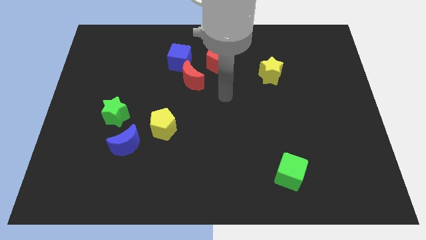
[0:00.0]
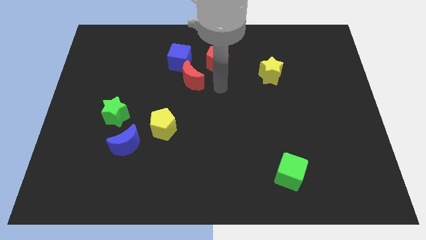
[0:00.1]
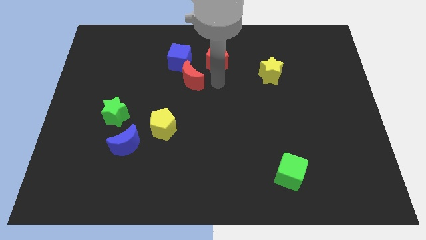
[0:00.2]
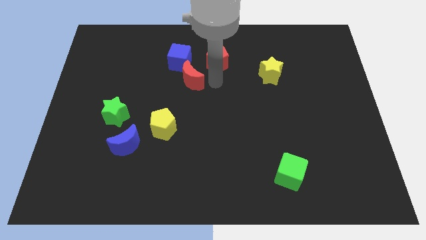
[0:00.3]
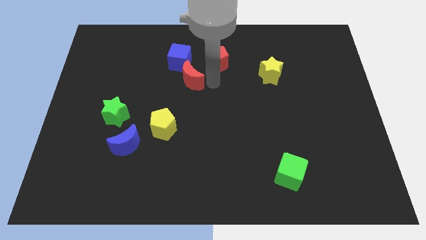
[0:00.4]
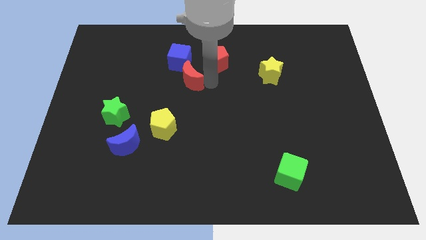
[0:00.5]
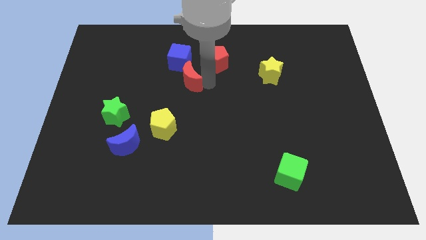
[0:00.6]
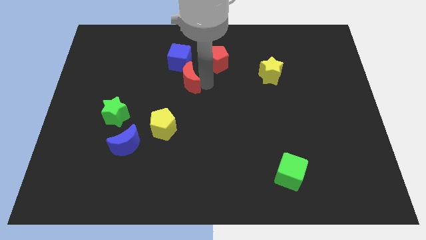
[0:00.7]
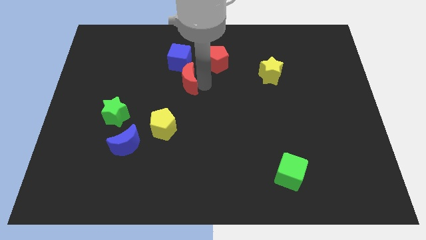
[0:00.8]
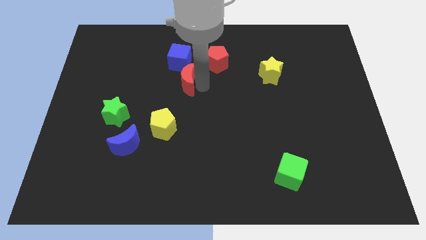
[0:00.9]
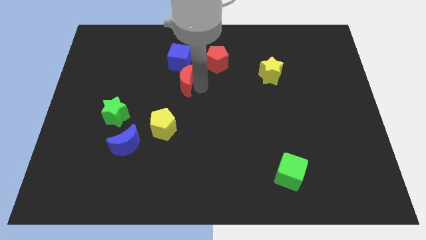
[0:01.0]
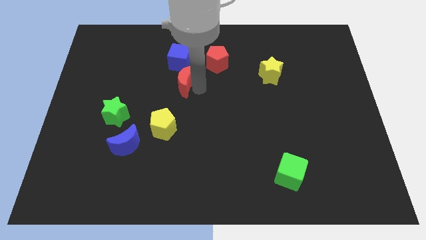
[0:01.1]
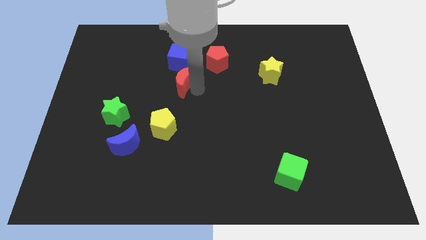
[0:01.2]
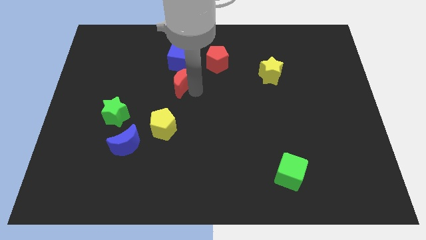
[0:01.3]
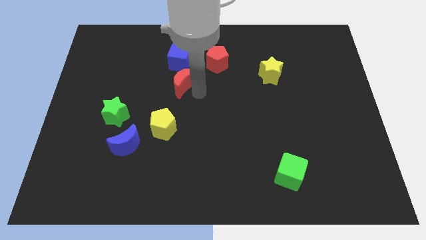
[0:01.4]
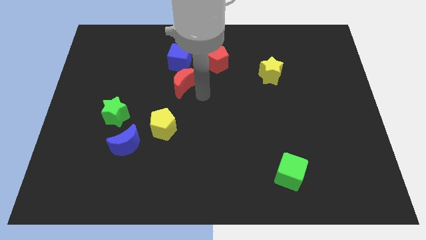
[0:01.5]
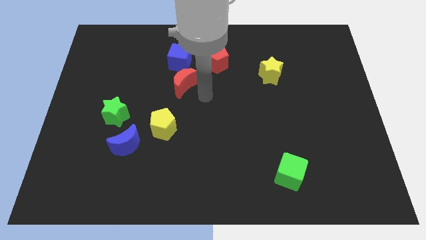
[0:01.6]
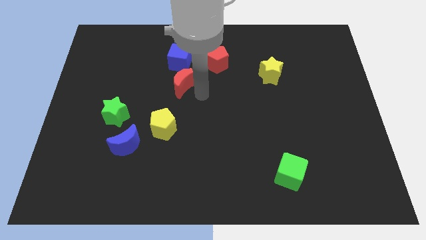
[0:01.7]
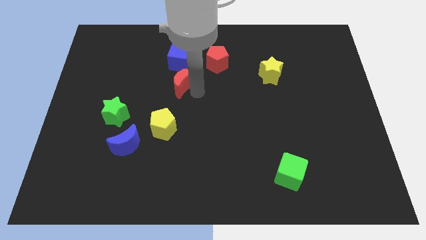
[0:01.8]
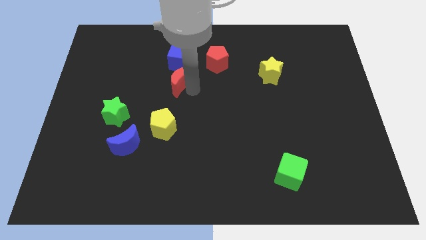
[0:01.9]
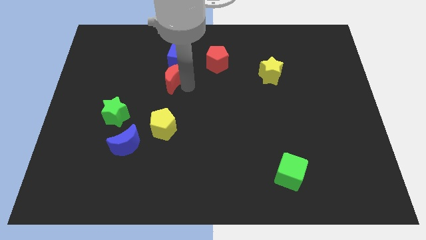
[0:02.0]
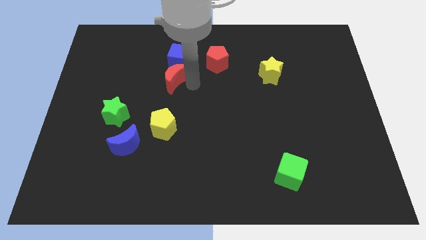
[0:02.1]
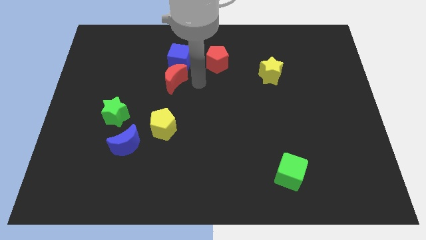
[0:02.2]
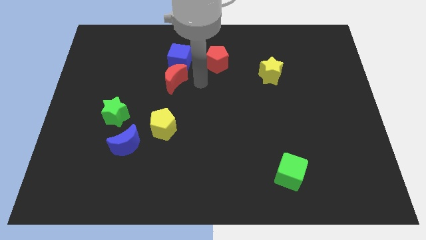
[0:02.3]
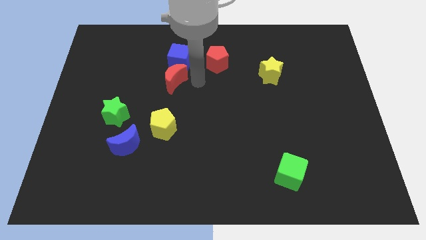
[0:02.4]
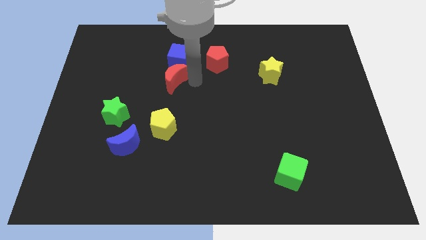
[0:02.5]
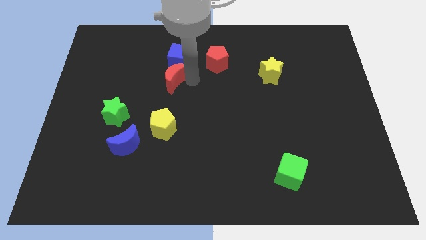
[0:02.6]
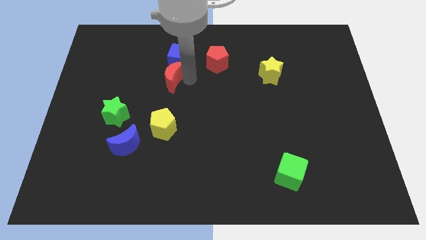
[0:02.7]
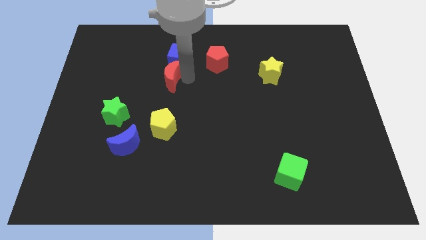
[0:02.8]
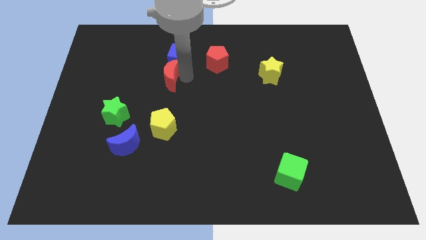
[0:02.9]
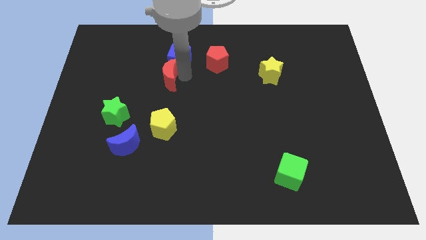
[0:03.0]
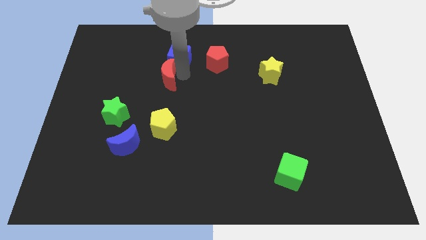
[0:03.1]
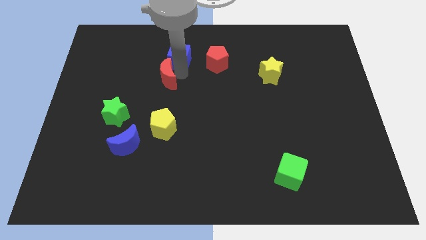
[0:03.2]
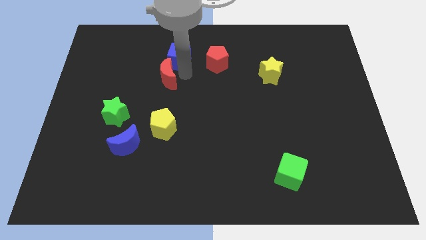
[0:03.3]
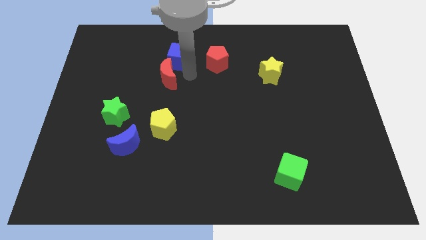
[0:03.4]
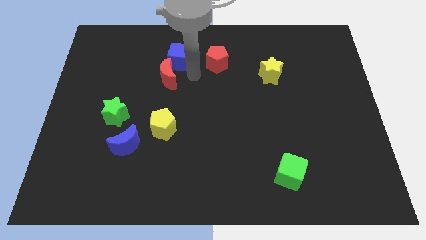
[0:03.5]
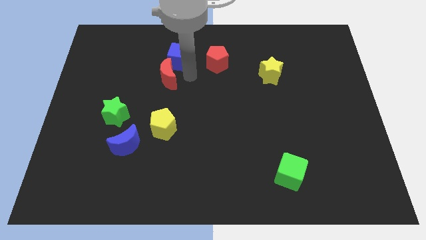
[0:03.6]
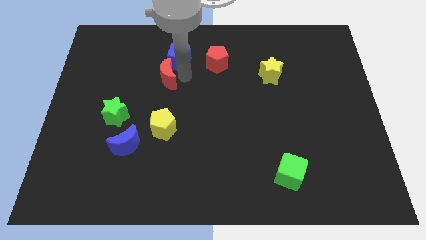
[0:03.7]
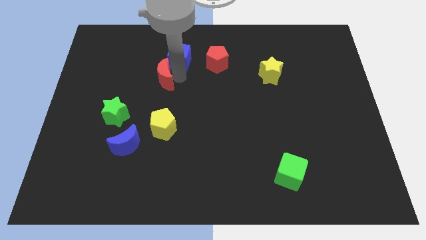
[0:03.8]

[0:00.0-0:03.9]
move the red moon a little left

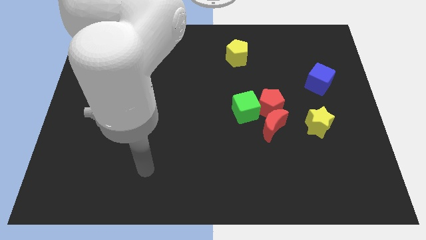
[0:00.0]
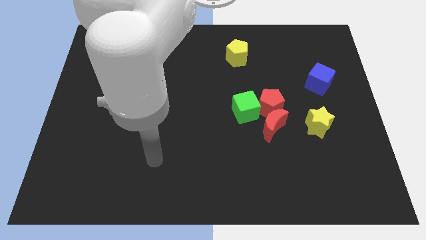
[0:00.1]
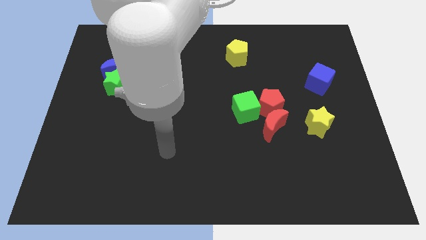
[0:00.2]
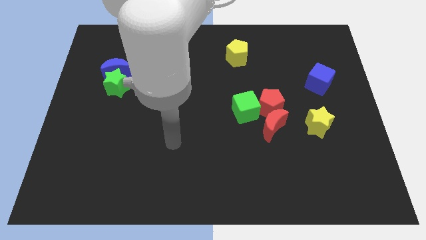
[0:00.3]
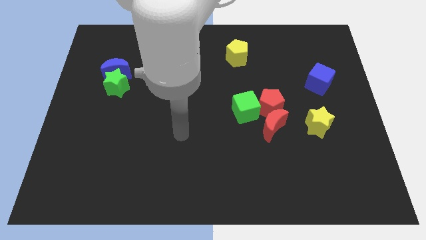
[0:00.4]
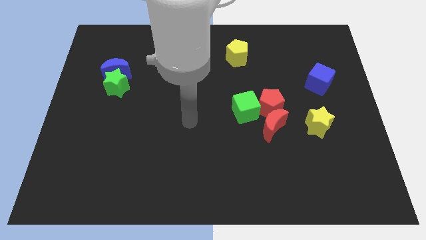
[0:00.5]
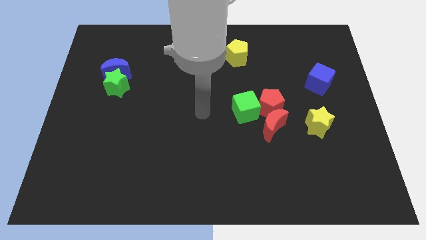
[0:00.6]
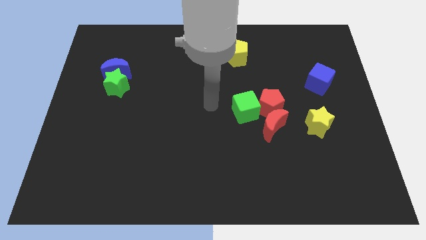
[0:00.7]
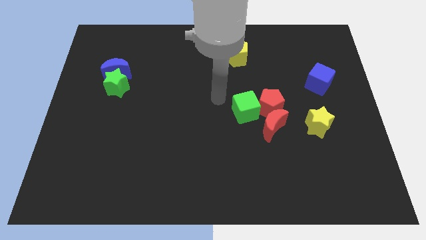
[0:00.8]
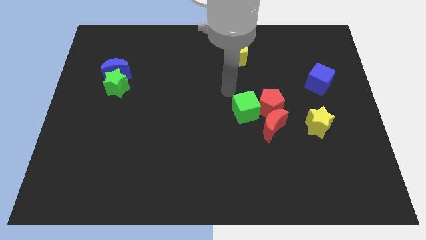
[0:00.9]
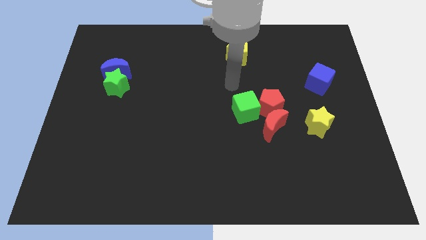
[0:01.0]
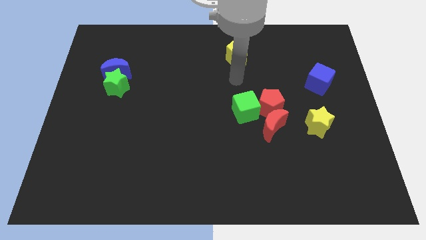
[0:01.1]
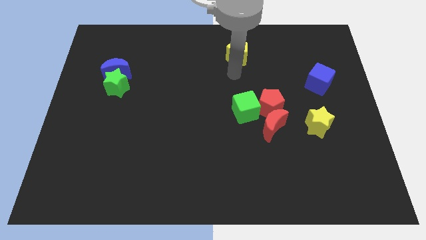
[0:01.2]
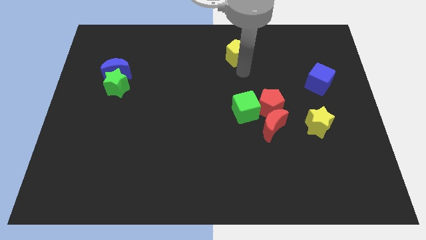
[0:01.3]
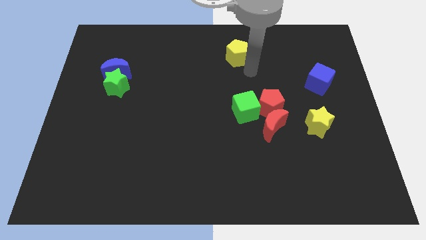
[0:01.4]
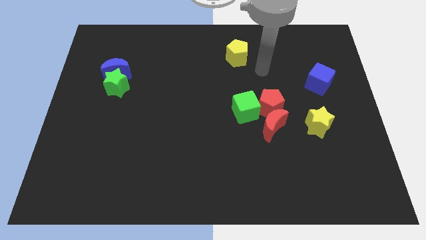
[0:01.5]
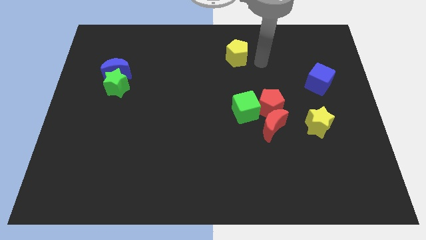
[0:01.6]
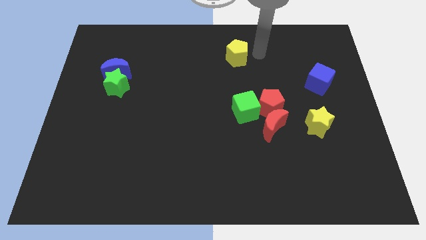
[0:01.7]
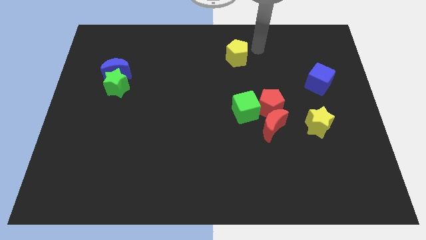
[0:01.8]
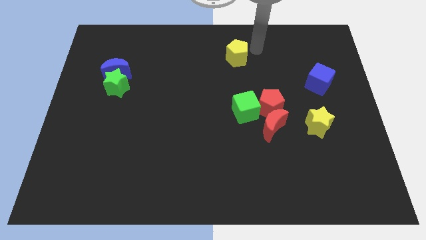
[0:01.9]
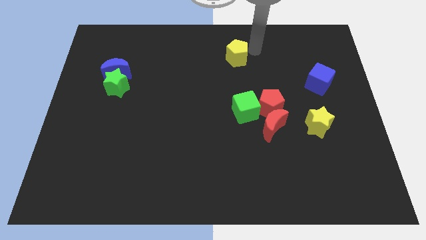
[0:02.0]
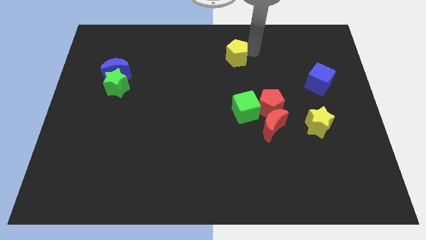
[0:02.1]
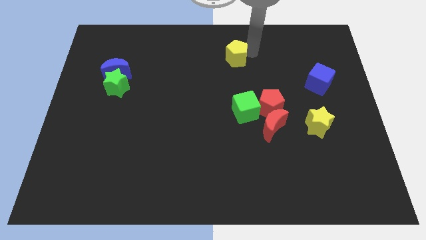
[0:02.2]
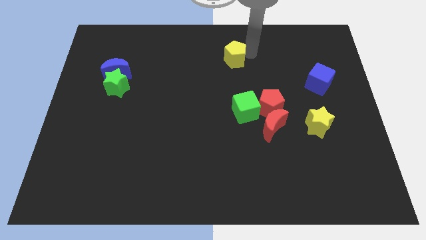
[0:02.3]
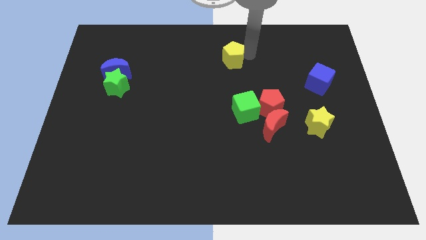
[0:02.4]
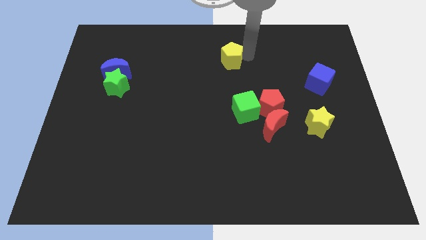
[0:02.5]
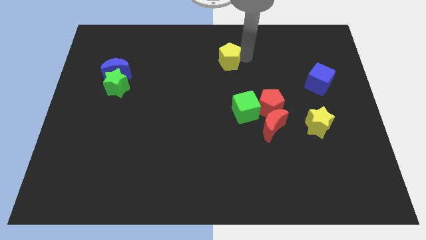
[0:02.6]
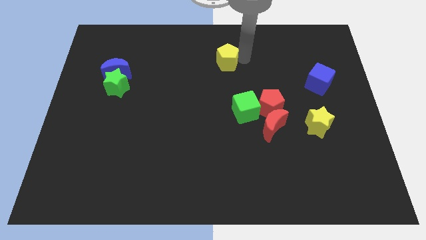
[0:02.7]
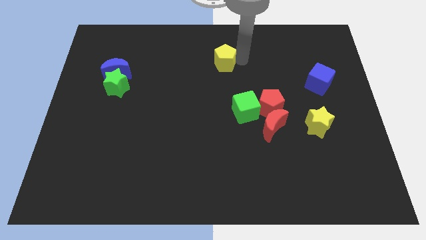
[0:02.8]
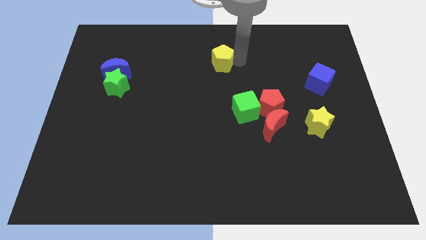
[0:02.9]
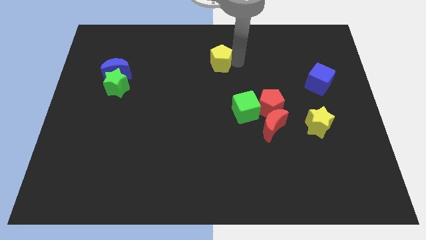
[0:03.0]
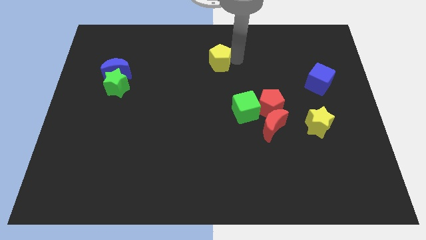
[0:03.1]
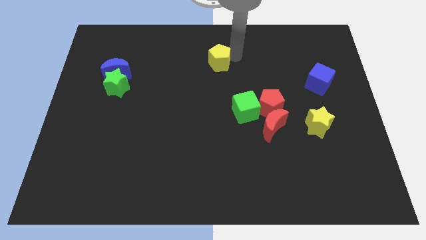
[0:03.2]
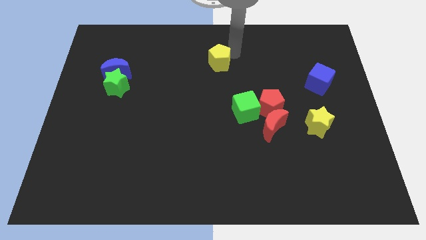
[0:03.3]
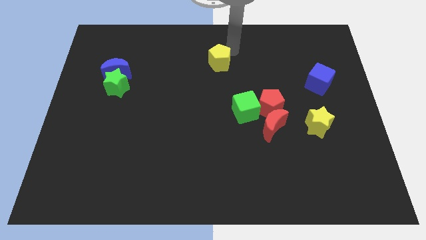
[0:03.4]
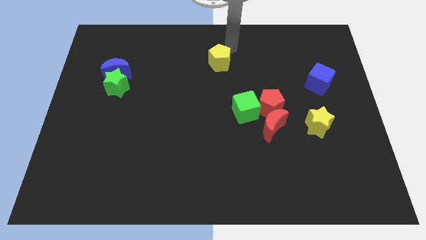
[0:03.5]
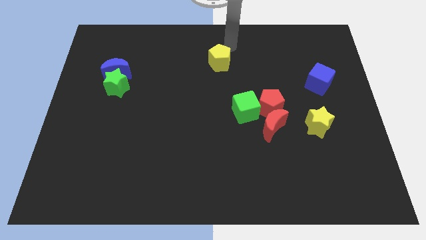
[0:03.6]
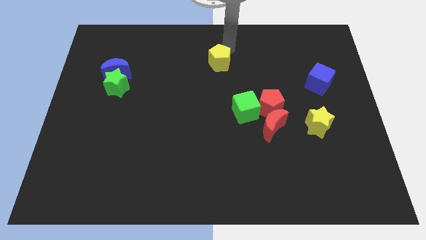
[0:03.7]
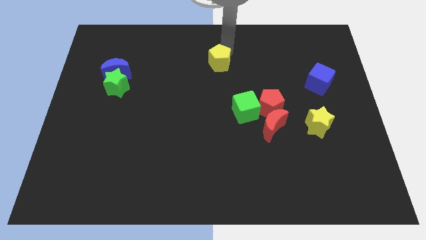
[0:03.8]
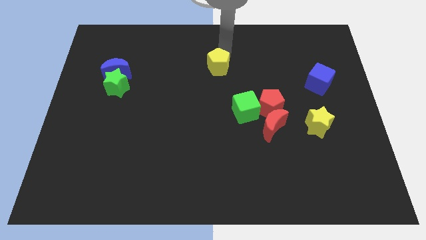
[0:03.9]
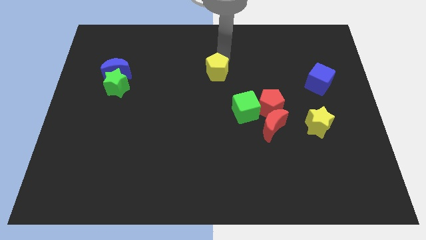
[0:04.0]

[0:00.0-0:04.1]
push the yellow pentagon a bit down and to the left diagonally
